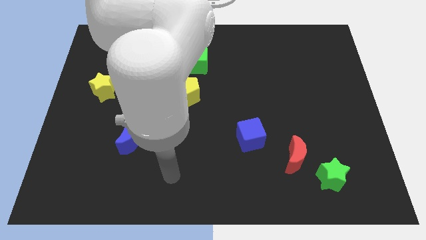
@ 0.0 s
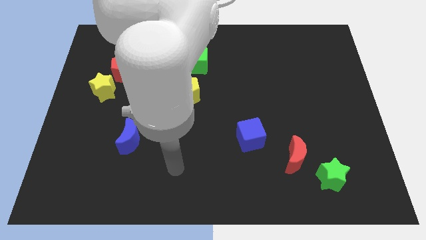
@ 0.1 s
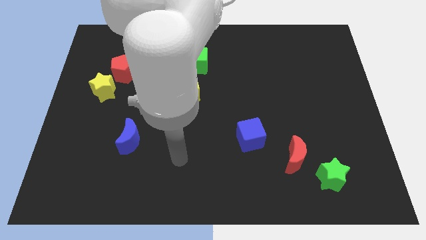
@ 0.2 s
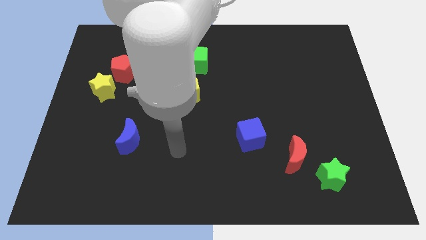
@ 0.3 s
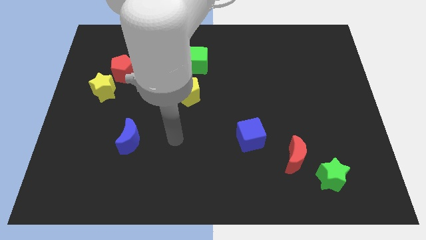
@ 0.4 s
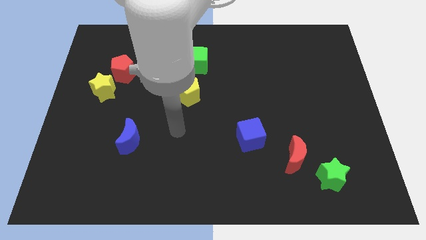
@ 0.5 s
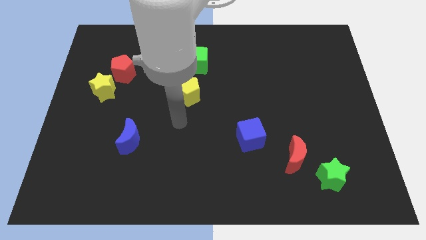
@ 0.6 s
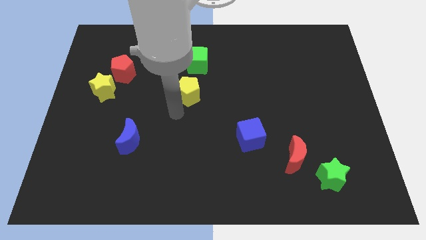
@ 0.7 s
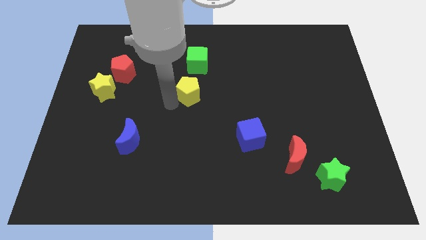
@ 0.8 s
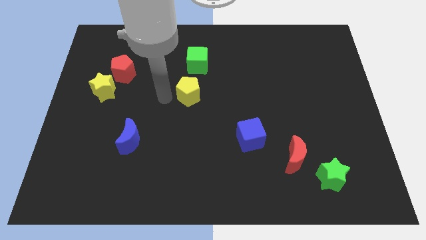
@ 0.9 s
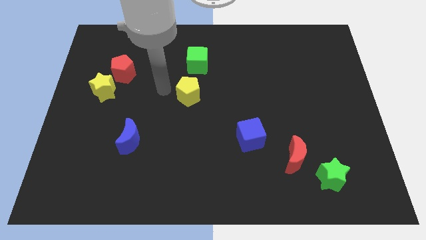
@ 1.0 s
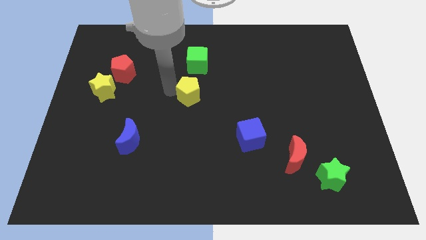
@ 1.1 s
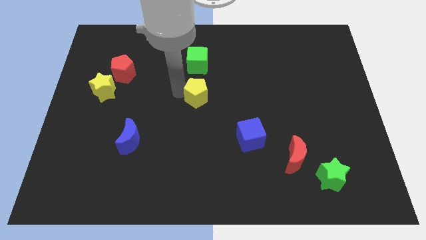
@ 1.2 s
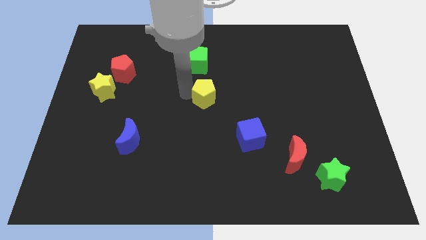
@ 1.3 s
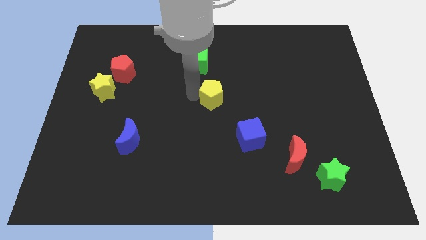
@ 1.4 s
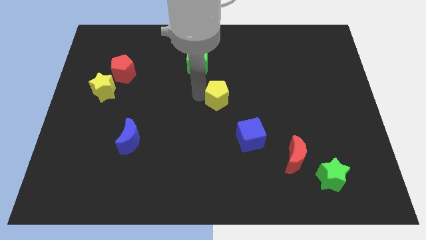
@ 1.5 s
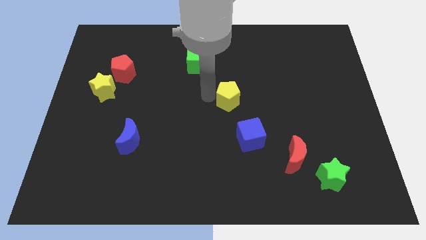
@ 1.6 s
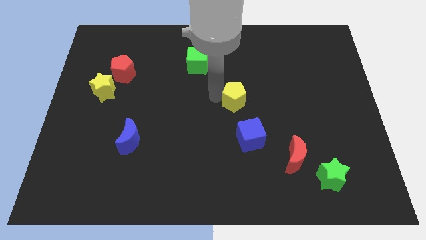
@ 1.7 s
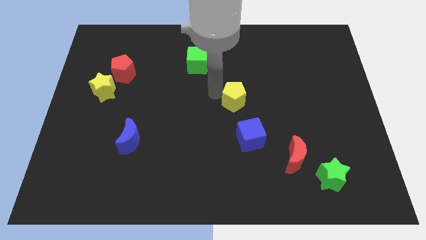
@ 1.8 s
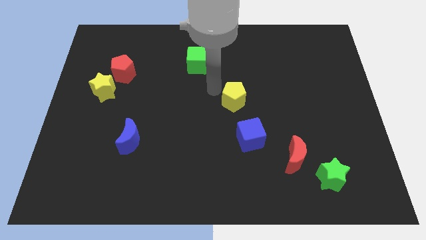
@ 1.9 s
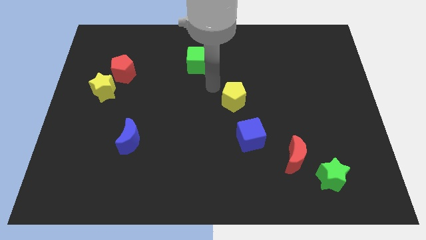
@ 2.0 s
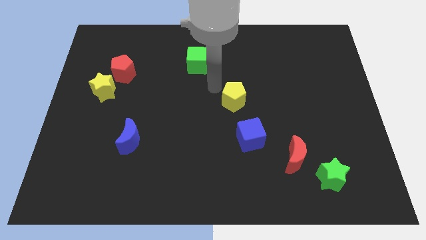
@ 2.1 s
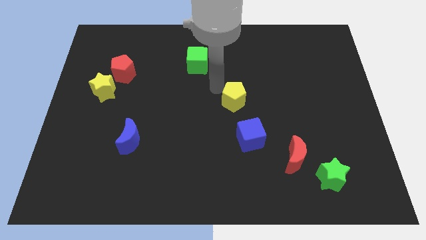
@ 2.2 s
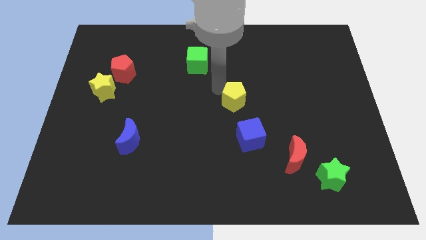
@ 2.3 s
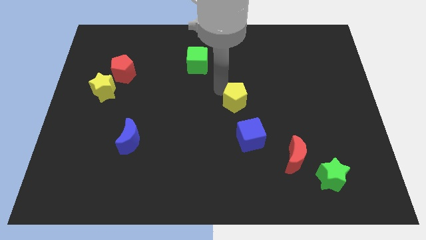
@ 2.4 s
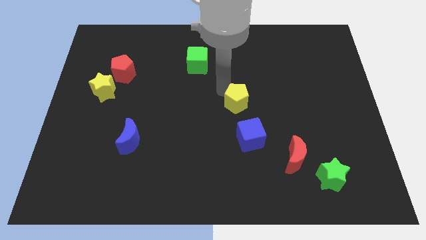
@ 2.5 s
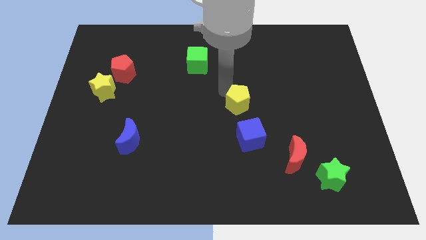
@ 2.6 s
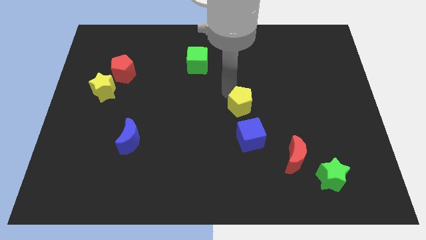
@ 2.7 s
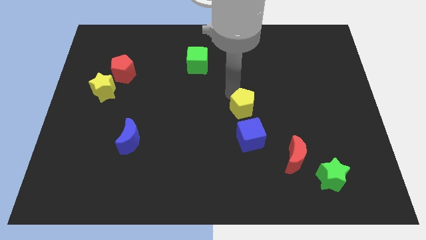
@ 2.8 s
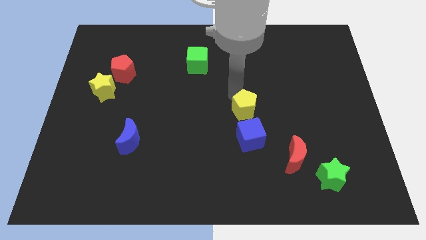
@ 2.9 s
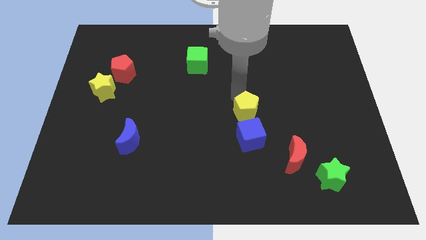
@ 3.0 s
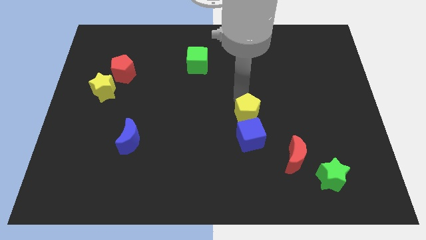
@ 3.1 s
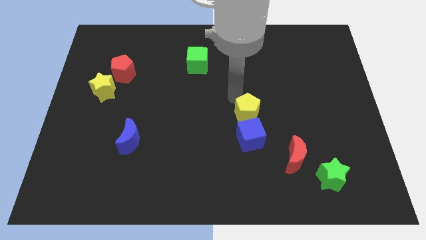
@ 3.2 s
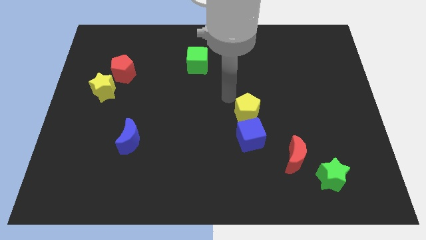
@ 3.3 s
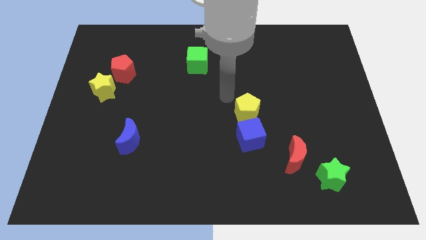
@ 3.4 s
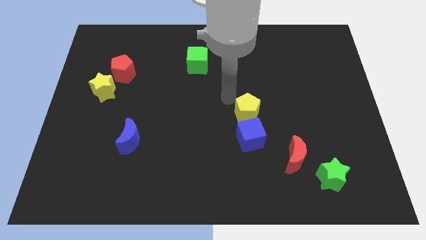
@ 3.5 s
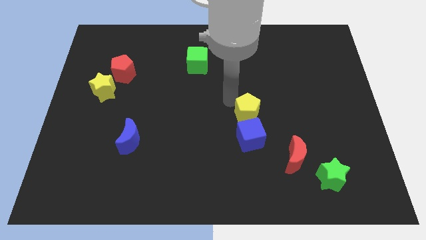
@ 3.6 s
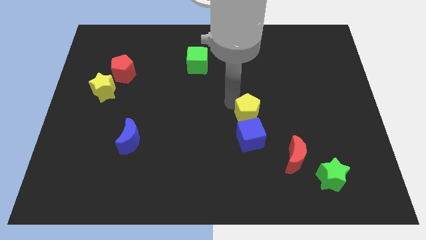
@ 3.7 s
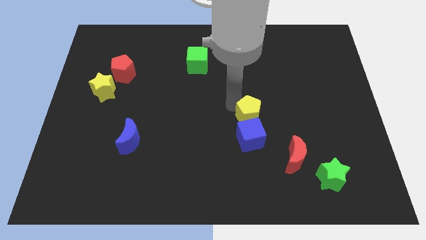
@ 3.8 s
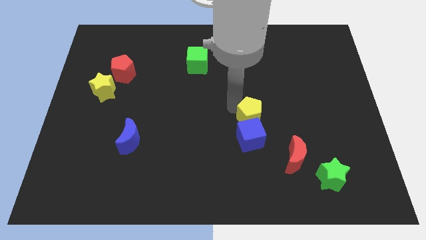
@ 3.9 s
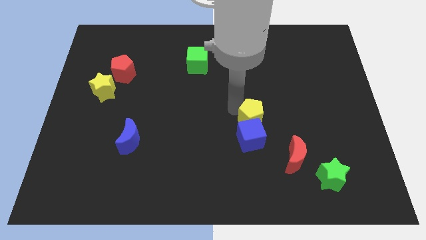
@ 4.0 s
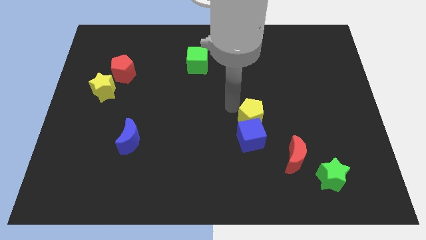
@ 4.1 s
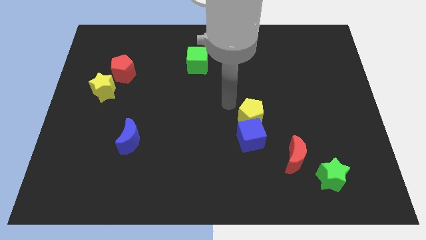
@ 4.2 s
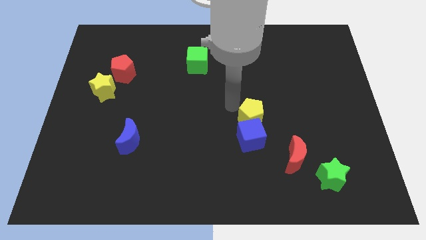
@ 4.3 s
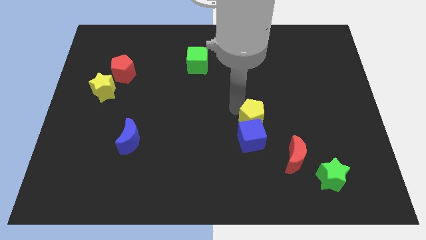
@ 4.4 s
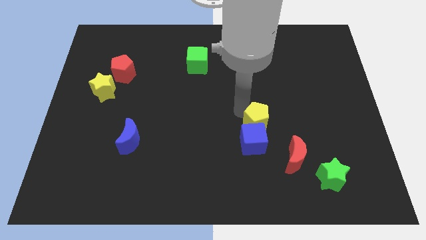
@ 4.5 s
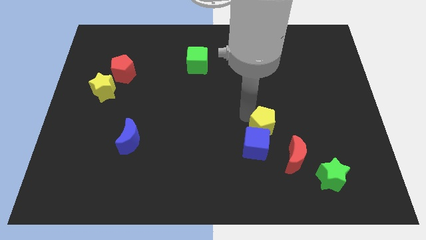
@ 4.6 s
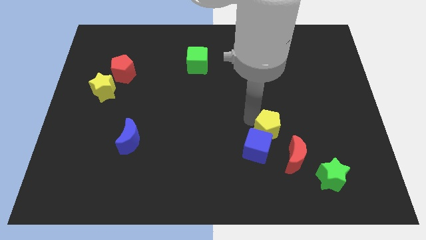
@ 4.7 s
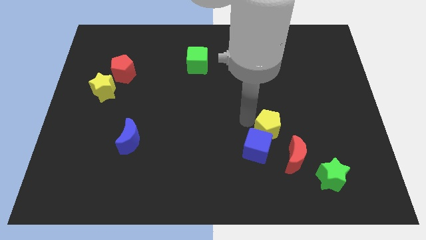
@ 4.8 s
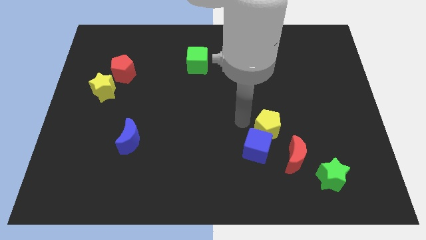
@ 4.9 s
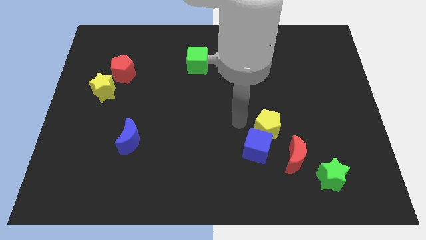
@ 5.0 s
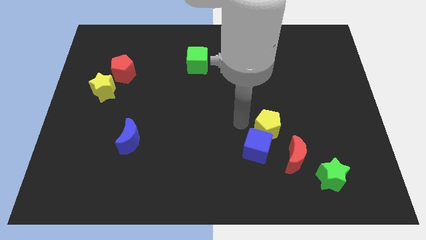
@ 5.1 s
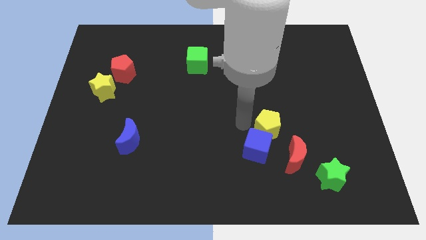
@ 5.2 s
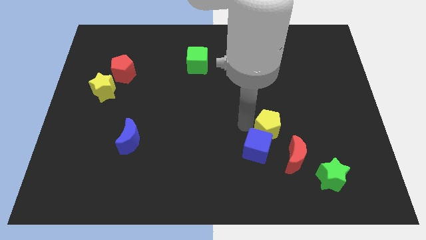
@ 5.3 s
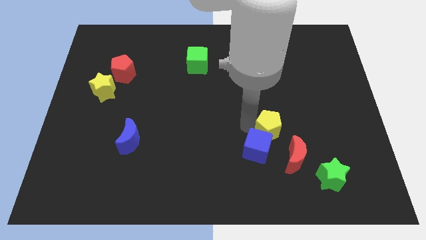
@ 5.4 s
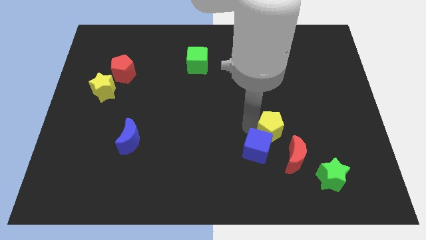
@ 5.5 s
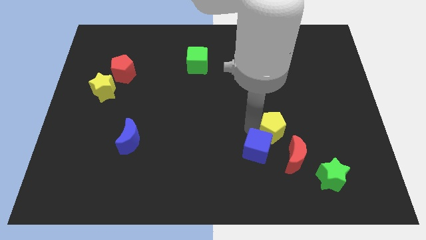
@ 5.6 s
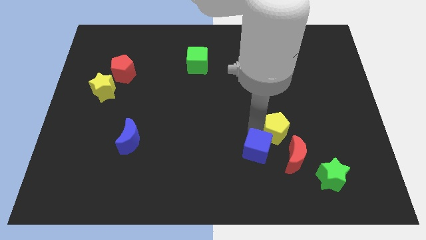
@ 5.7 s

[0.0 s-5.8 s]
slide the yellow pentagon to the right of the blue cube

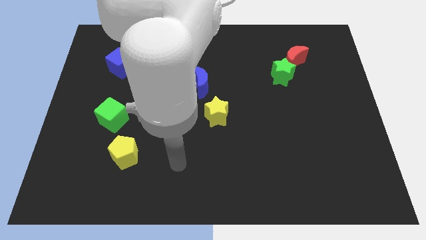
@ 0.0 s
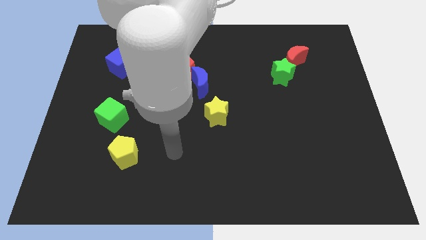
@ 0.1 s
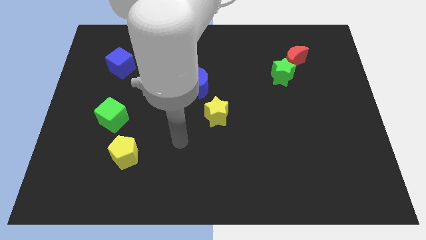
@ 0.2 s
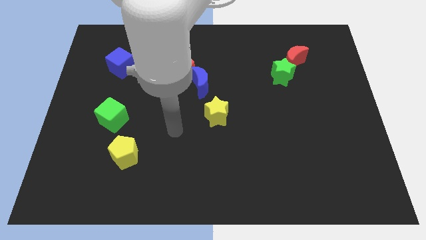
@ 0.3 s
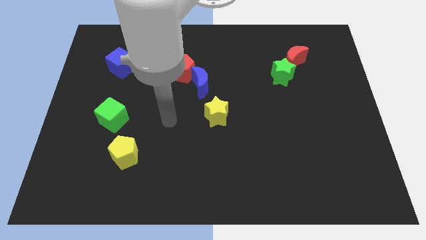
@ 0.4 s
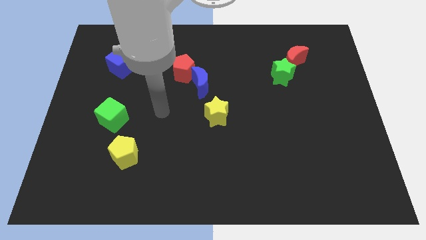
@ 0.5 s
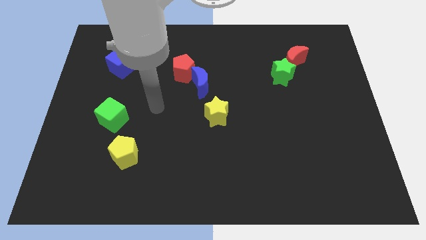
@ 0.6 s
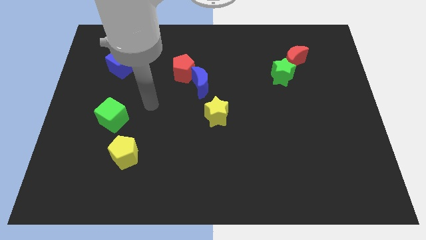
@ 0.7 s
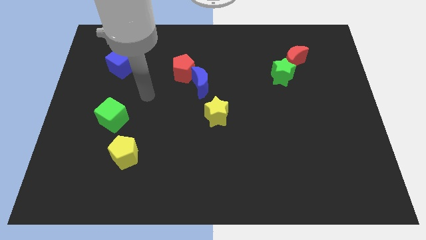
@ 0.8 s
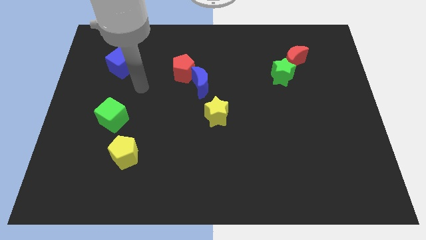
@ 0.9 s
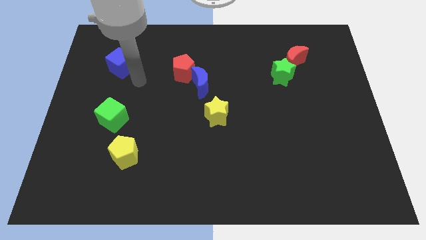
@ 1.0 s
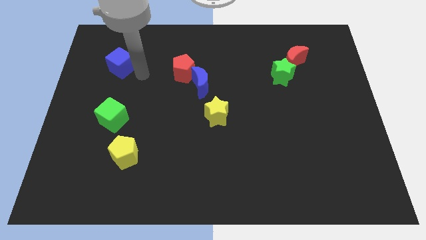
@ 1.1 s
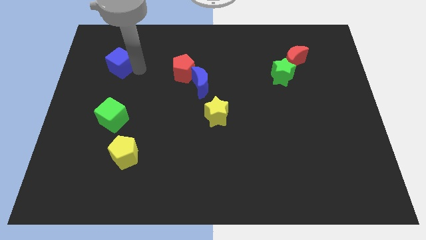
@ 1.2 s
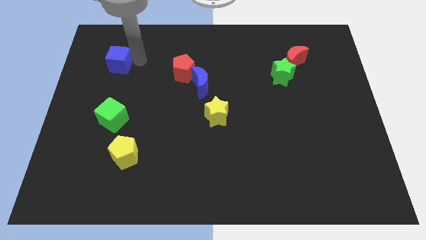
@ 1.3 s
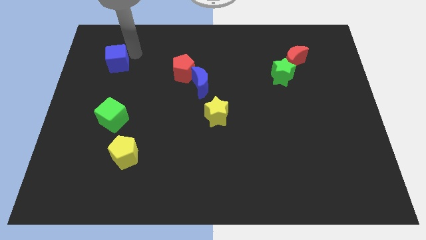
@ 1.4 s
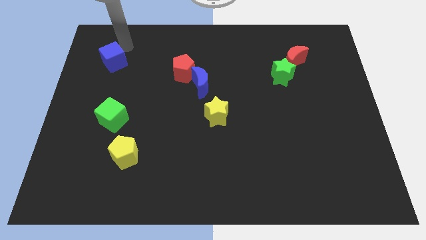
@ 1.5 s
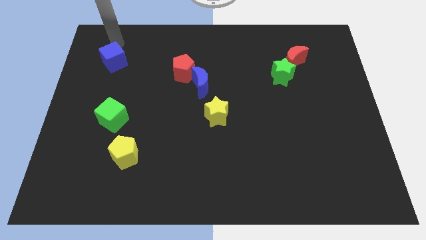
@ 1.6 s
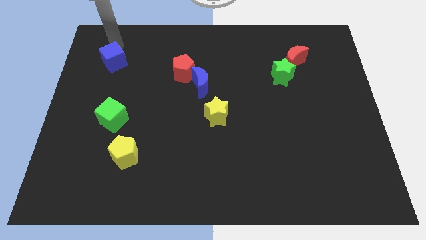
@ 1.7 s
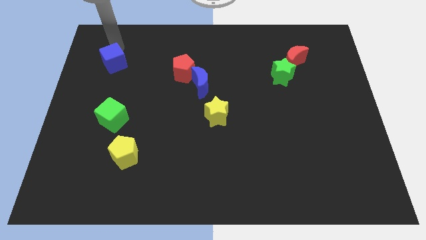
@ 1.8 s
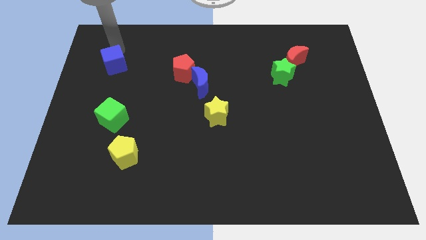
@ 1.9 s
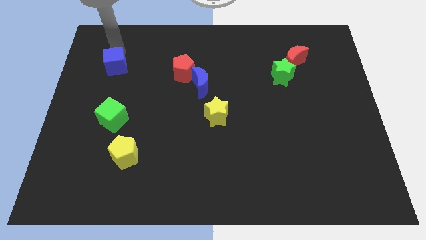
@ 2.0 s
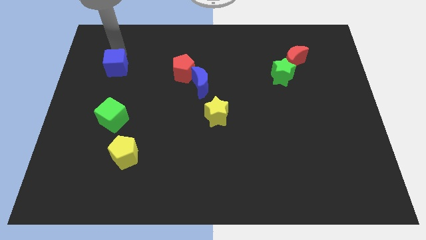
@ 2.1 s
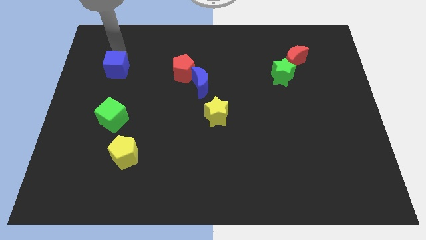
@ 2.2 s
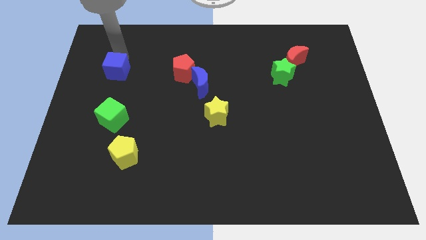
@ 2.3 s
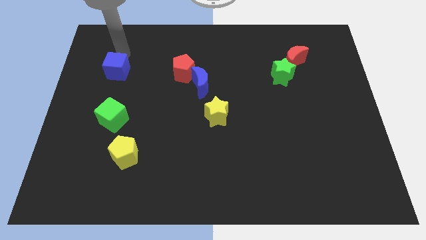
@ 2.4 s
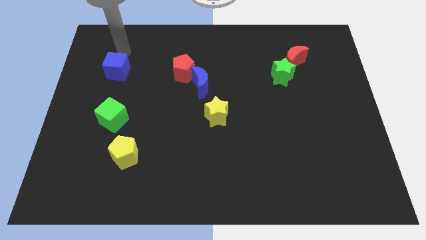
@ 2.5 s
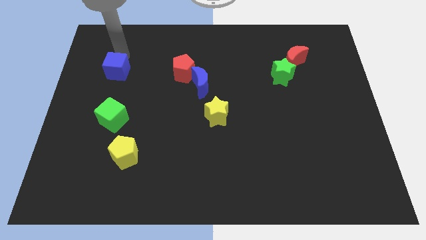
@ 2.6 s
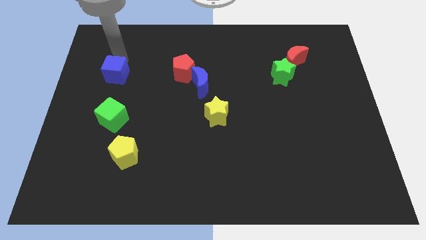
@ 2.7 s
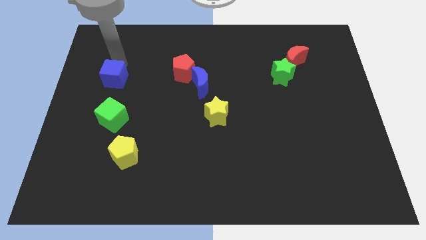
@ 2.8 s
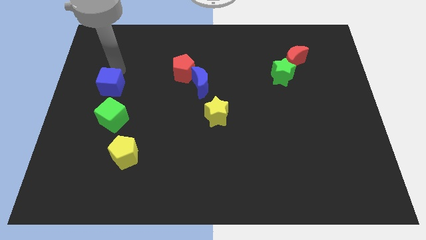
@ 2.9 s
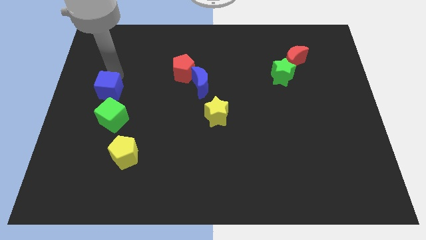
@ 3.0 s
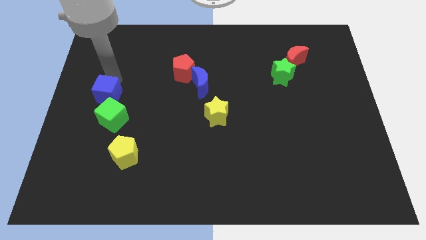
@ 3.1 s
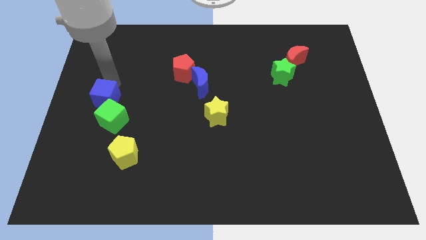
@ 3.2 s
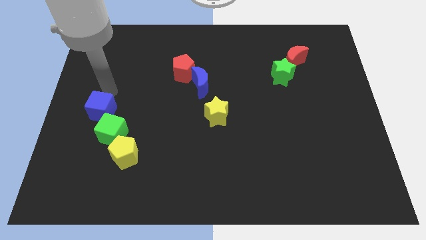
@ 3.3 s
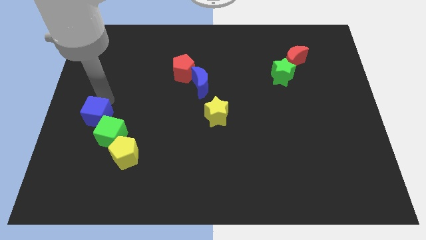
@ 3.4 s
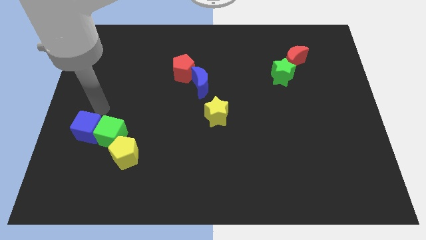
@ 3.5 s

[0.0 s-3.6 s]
move the blue cube to the bottom left of the green cube
